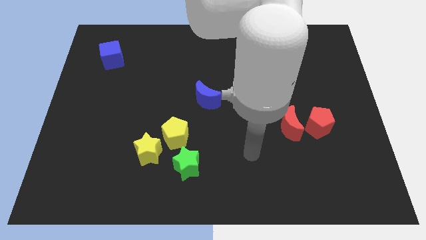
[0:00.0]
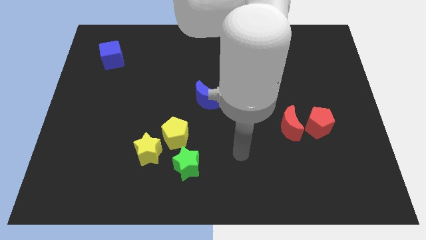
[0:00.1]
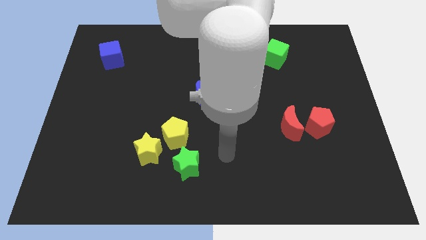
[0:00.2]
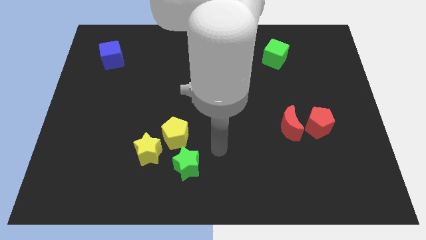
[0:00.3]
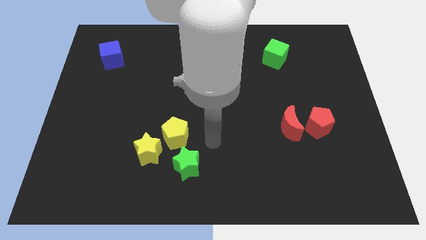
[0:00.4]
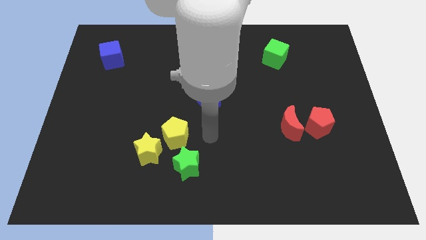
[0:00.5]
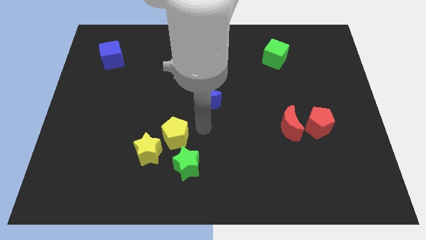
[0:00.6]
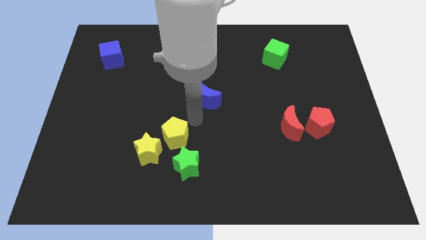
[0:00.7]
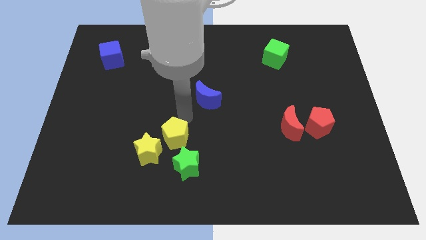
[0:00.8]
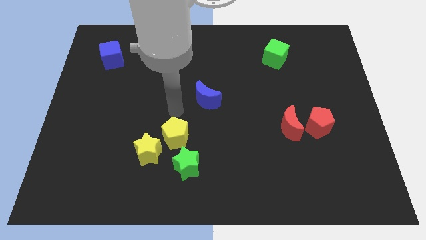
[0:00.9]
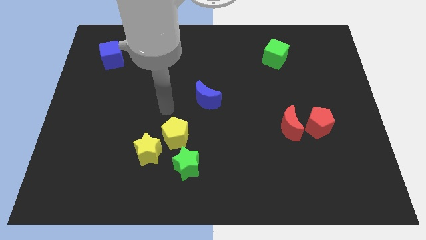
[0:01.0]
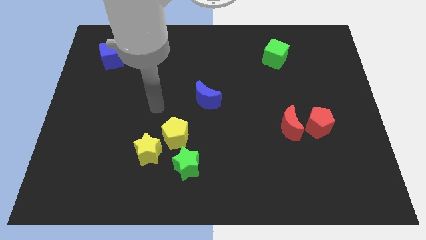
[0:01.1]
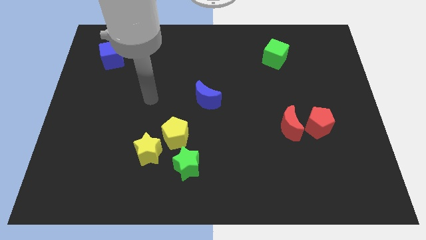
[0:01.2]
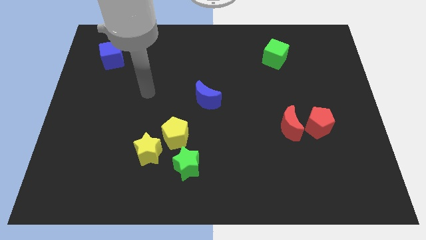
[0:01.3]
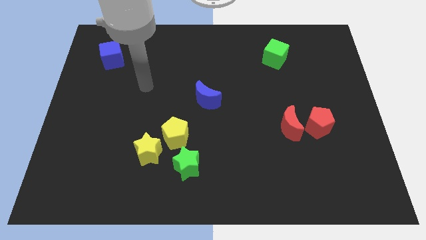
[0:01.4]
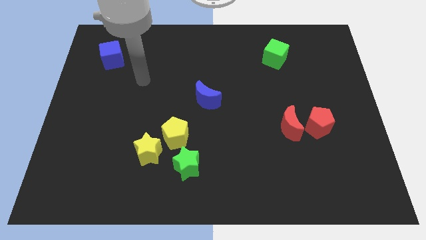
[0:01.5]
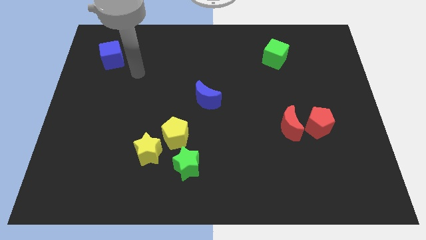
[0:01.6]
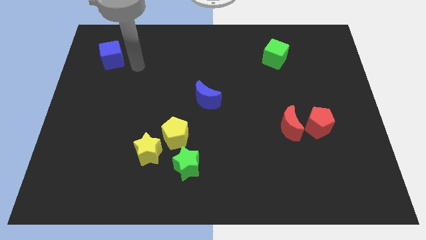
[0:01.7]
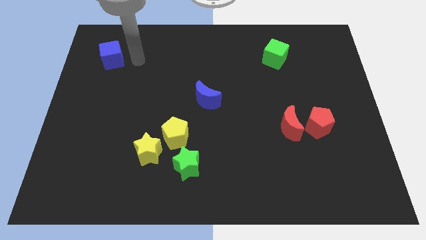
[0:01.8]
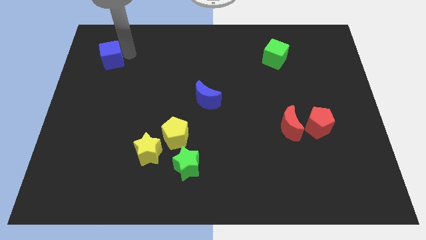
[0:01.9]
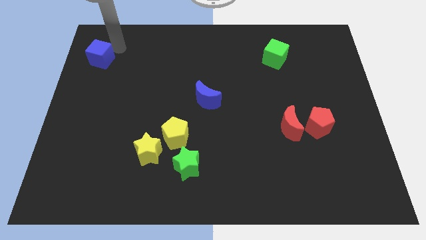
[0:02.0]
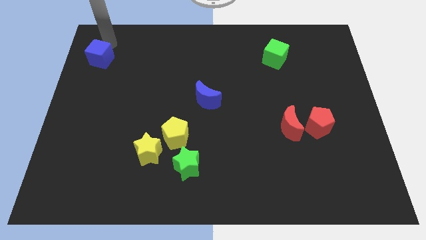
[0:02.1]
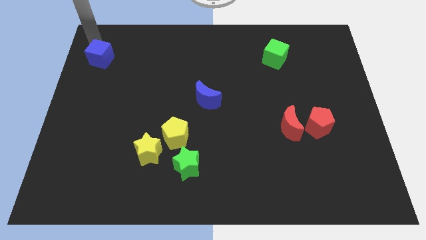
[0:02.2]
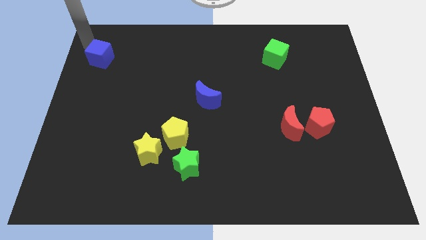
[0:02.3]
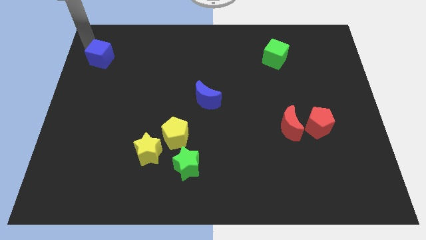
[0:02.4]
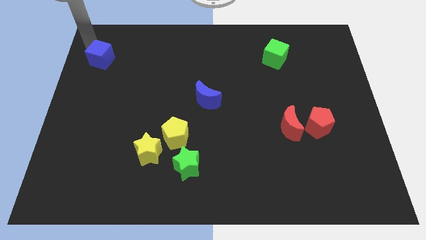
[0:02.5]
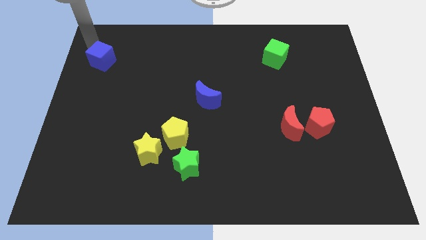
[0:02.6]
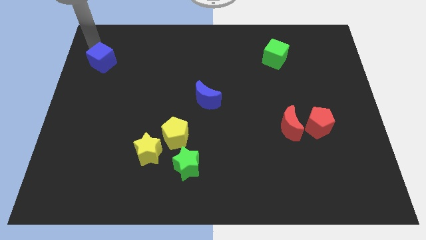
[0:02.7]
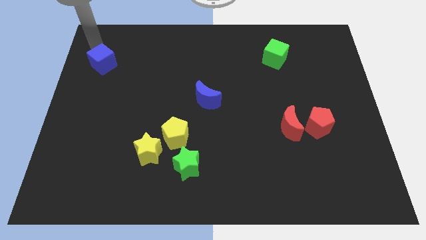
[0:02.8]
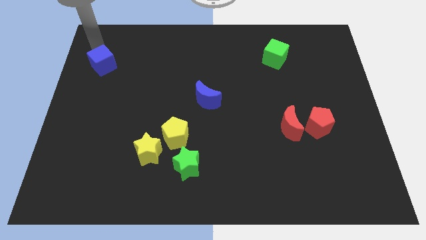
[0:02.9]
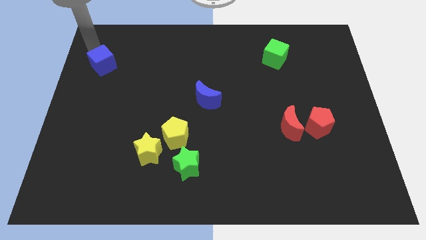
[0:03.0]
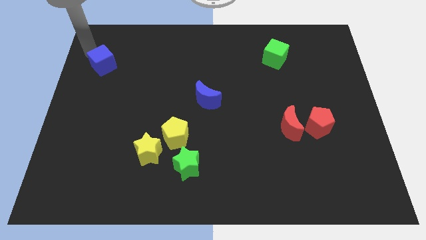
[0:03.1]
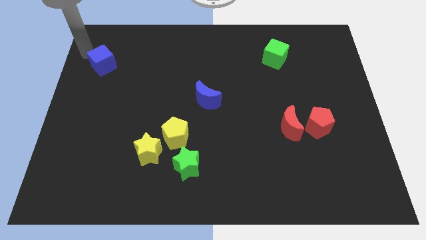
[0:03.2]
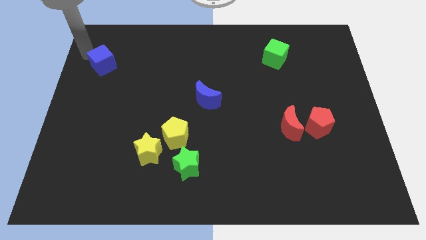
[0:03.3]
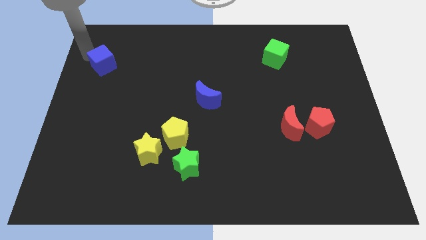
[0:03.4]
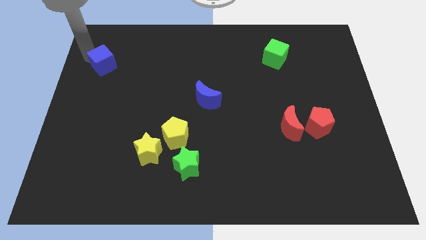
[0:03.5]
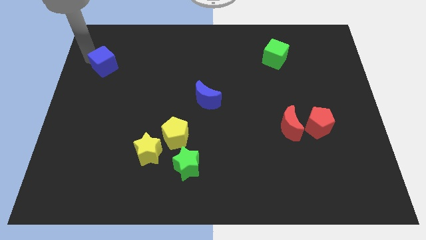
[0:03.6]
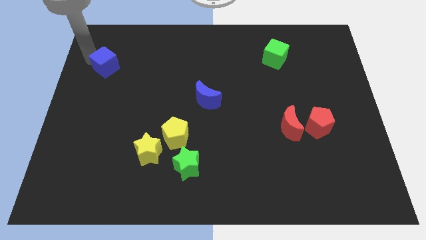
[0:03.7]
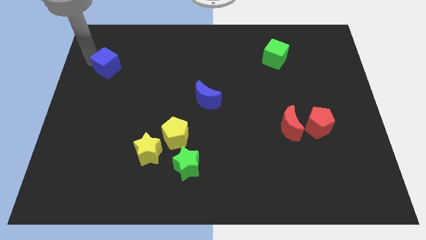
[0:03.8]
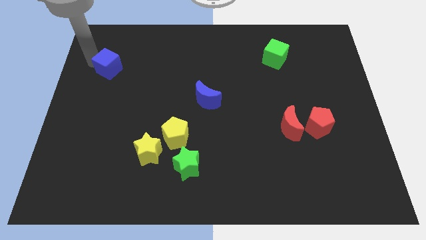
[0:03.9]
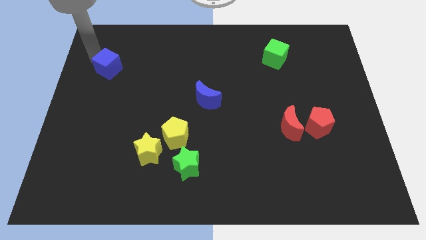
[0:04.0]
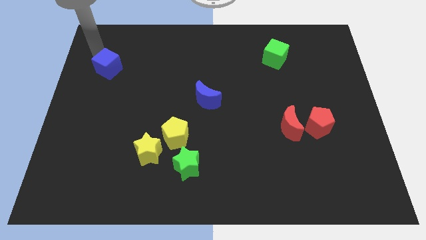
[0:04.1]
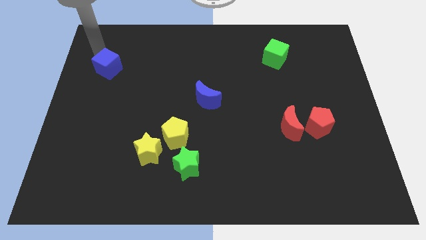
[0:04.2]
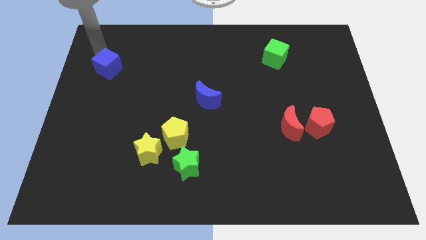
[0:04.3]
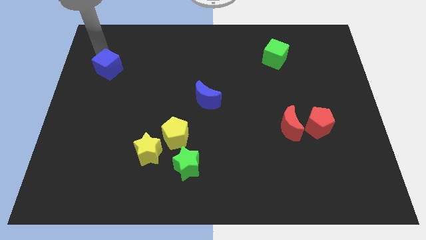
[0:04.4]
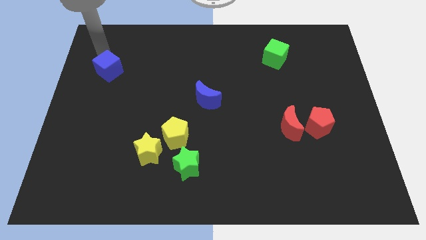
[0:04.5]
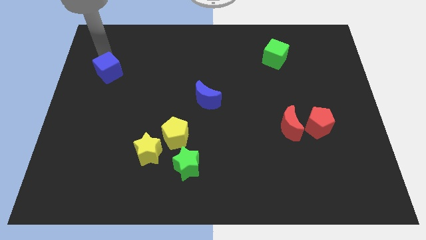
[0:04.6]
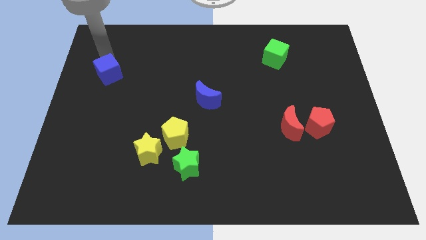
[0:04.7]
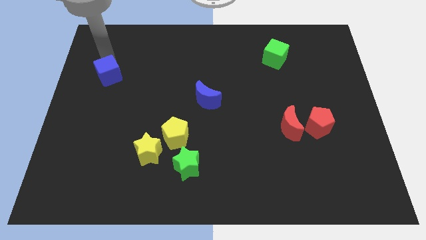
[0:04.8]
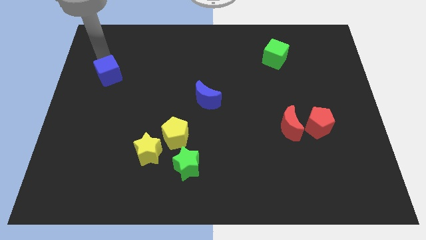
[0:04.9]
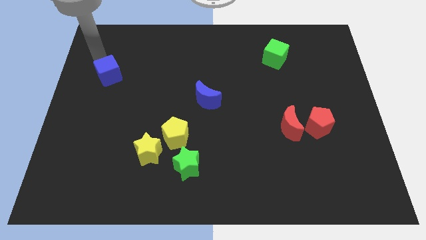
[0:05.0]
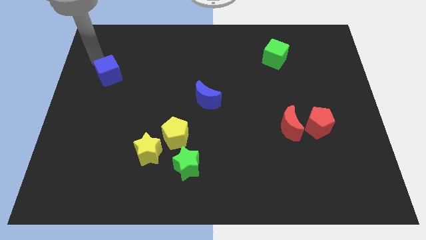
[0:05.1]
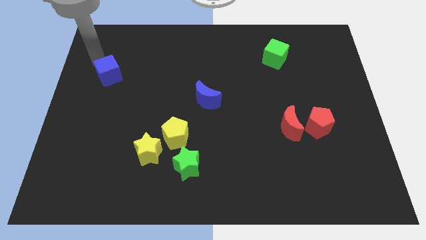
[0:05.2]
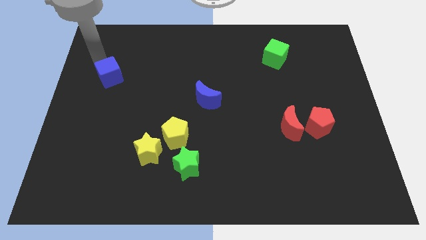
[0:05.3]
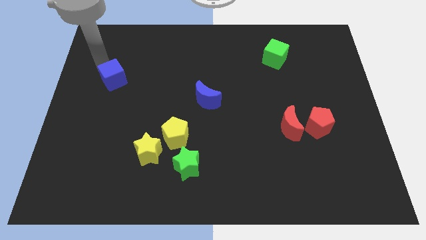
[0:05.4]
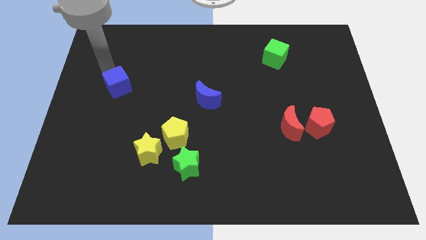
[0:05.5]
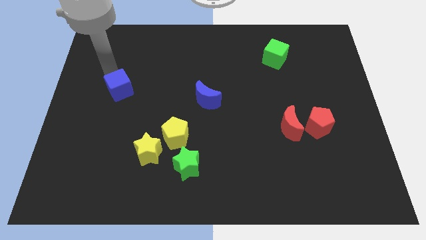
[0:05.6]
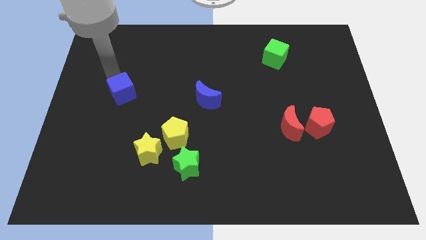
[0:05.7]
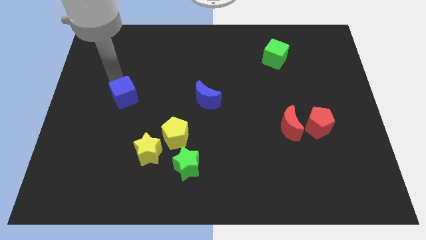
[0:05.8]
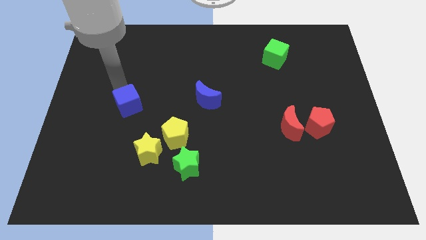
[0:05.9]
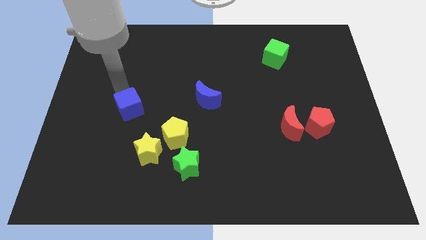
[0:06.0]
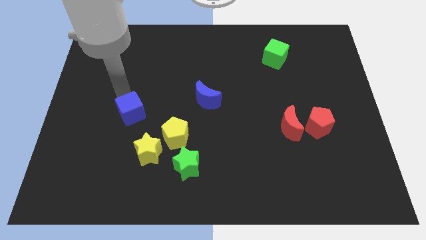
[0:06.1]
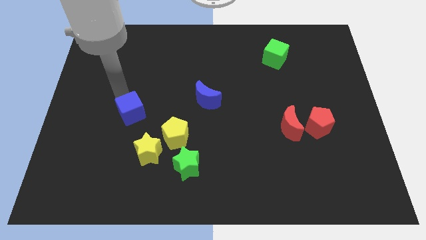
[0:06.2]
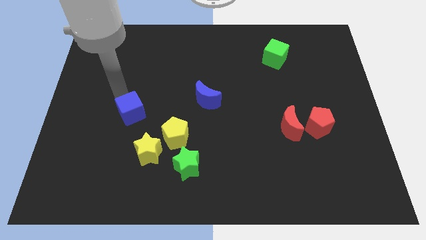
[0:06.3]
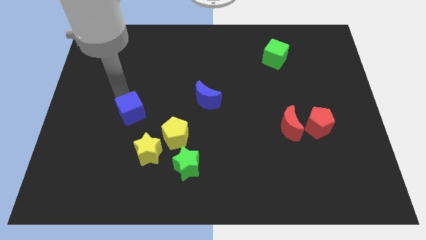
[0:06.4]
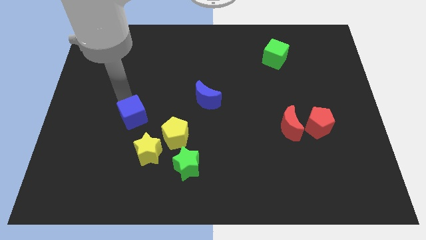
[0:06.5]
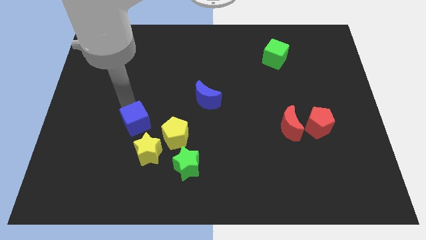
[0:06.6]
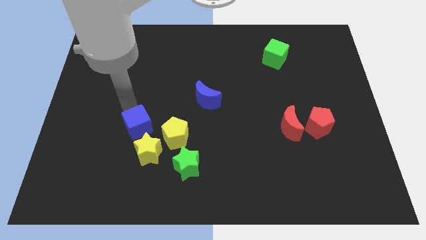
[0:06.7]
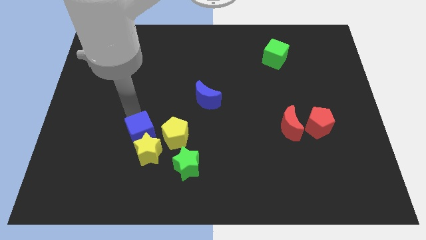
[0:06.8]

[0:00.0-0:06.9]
put the blue cube towards the yellow star

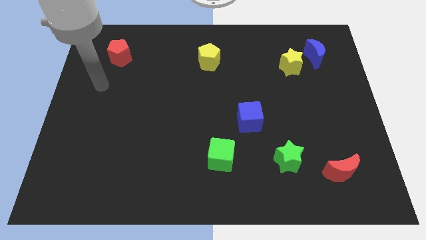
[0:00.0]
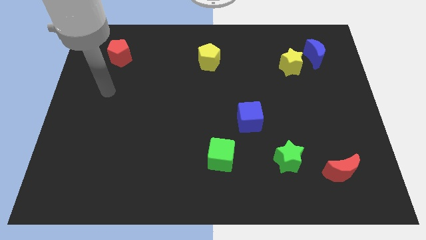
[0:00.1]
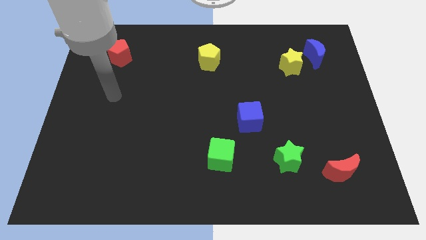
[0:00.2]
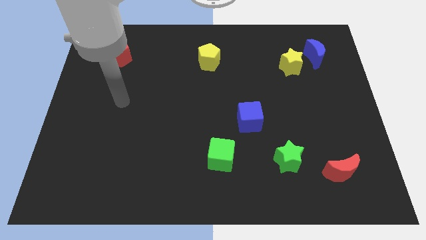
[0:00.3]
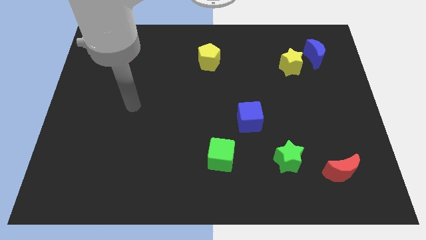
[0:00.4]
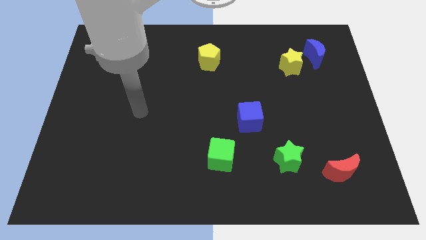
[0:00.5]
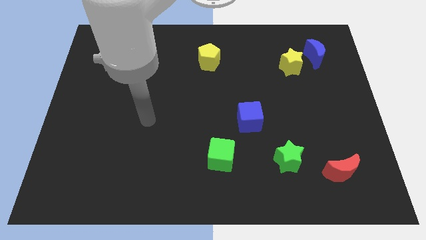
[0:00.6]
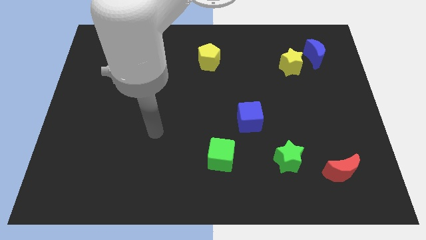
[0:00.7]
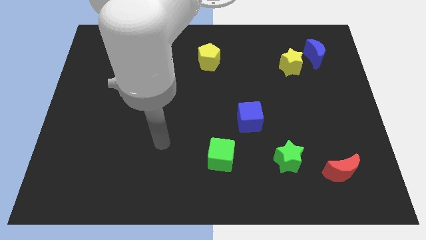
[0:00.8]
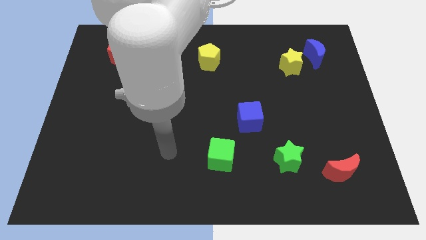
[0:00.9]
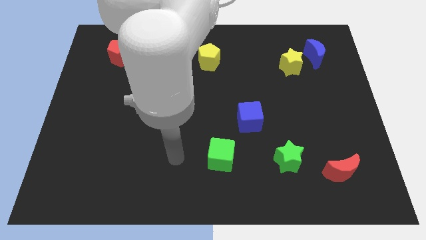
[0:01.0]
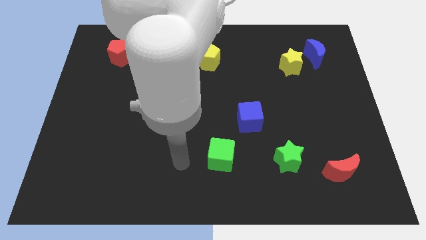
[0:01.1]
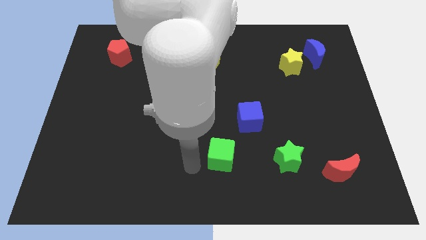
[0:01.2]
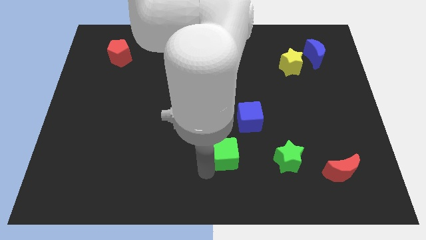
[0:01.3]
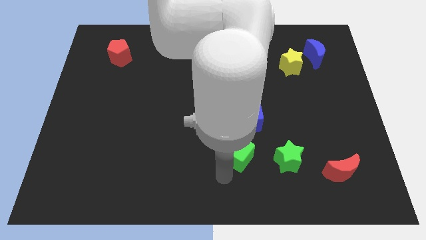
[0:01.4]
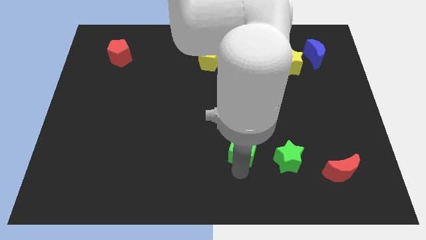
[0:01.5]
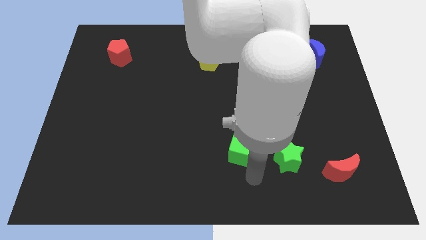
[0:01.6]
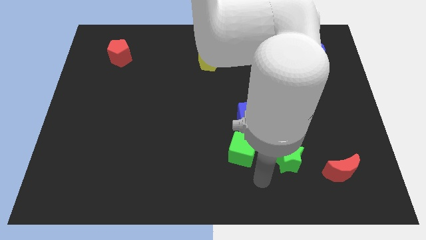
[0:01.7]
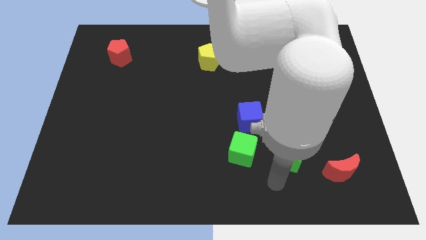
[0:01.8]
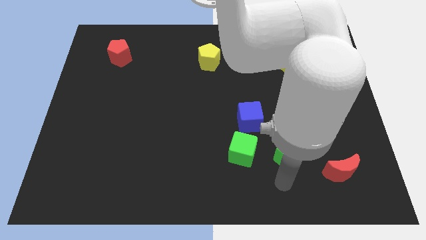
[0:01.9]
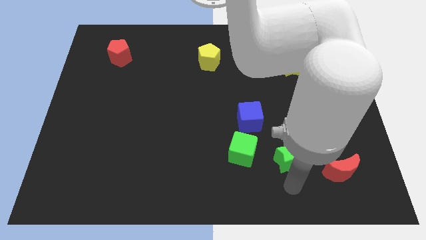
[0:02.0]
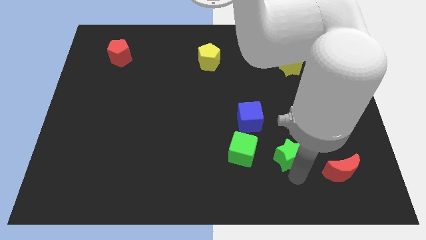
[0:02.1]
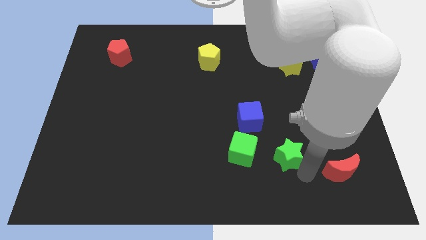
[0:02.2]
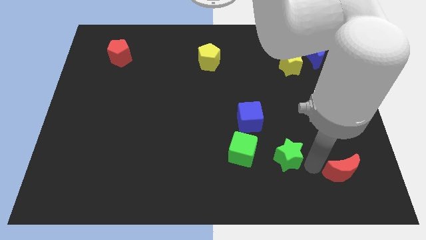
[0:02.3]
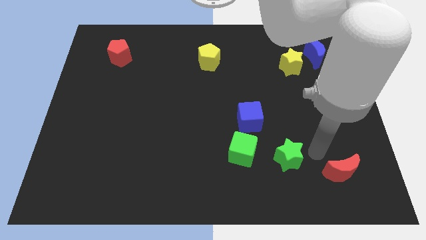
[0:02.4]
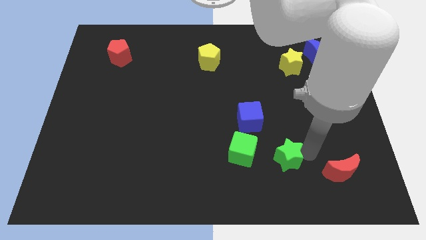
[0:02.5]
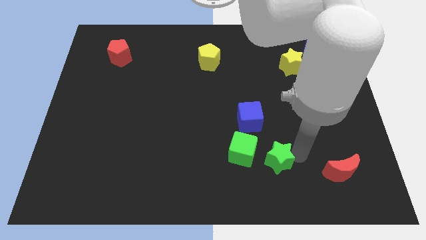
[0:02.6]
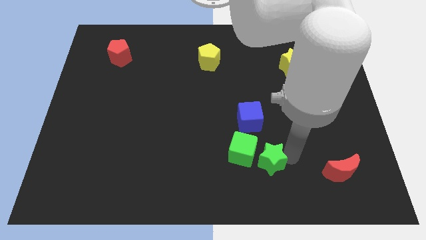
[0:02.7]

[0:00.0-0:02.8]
move the green star to the green cube
